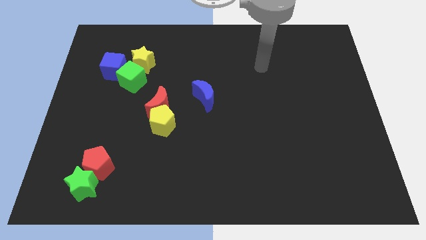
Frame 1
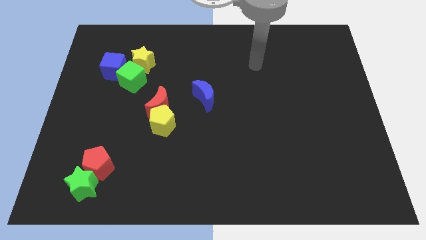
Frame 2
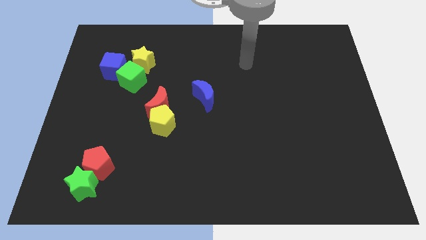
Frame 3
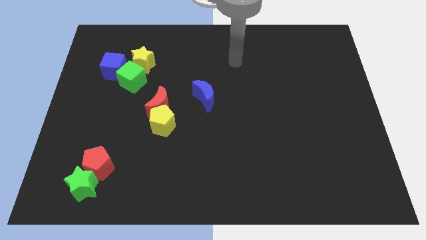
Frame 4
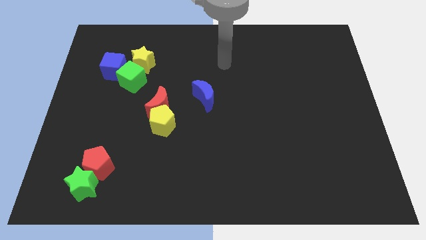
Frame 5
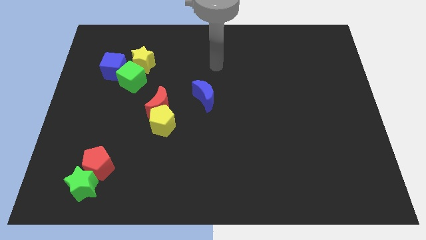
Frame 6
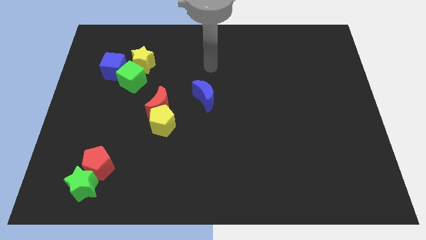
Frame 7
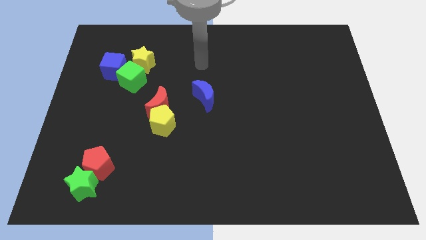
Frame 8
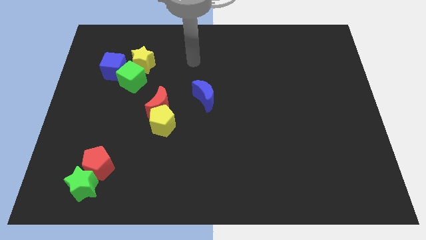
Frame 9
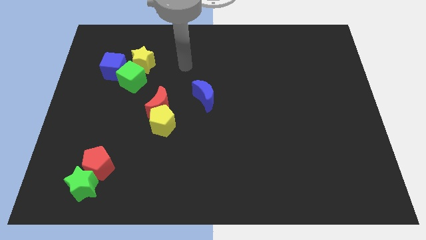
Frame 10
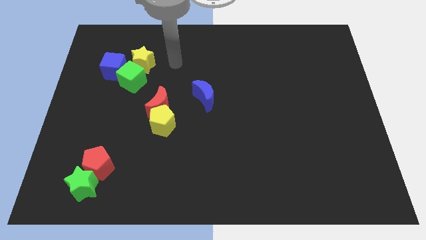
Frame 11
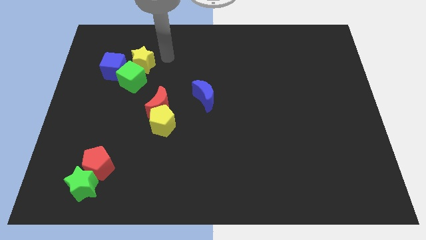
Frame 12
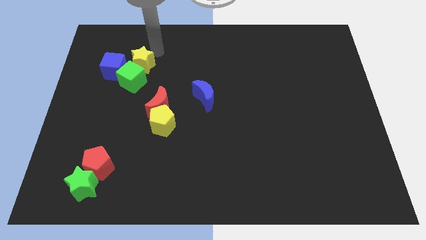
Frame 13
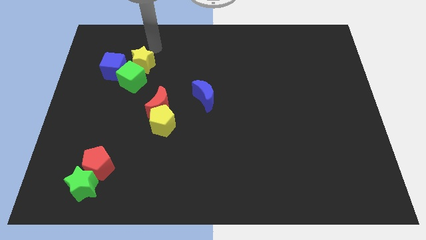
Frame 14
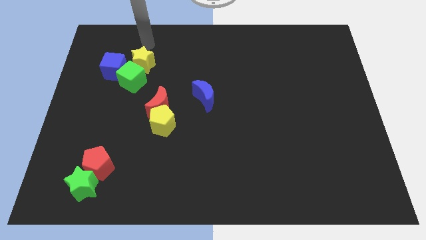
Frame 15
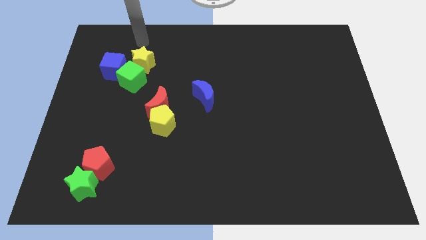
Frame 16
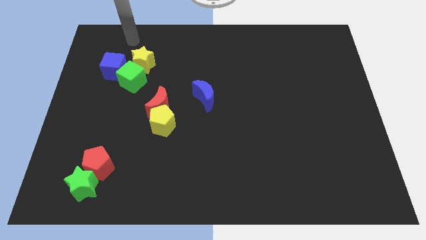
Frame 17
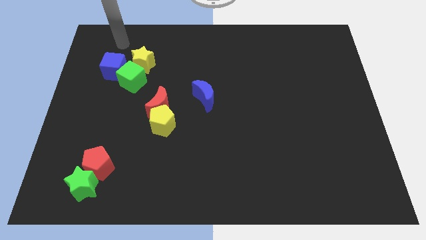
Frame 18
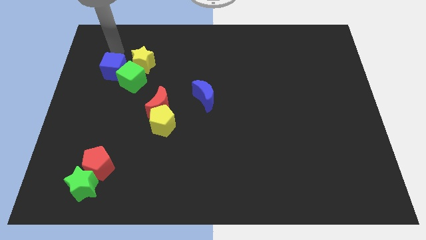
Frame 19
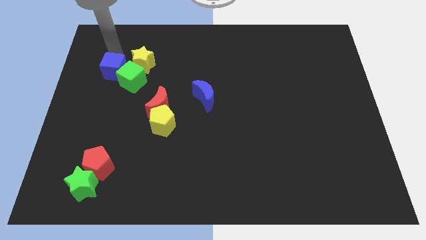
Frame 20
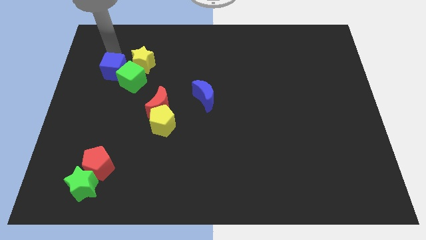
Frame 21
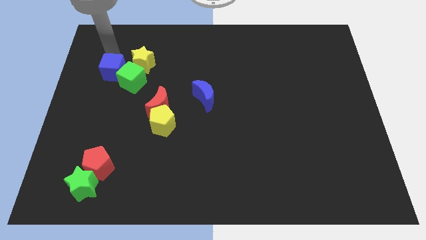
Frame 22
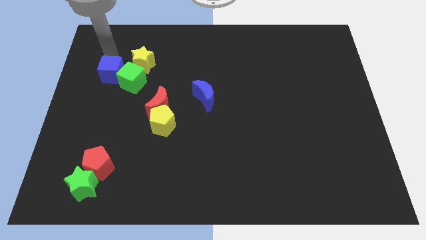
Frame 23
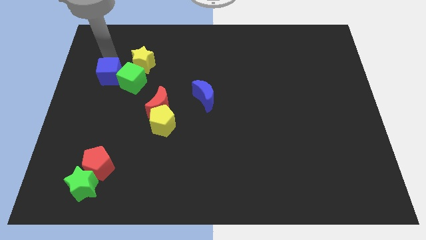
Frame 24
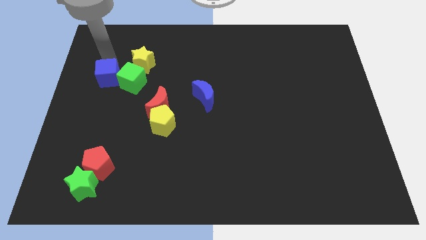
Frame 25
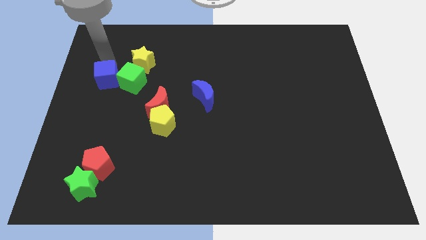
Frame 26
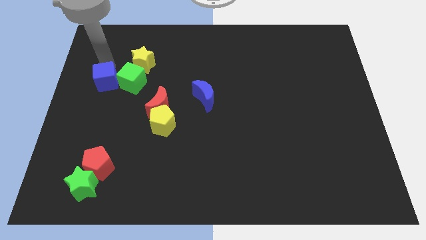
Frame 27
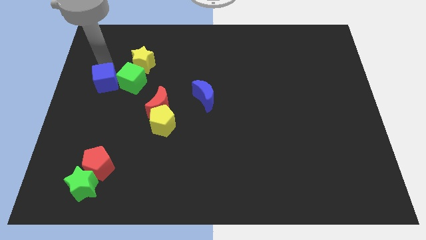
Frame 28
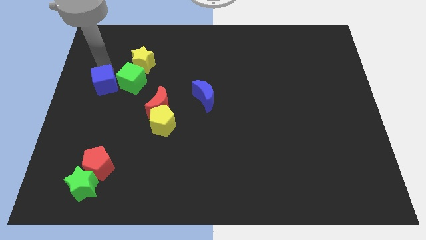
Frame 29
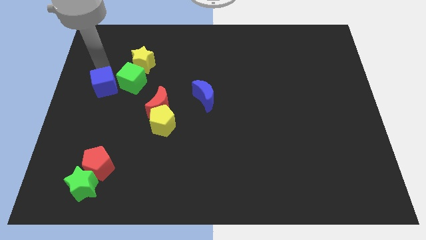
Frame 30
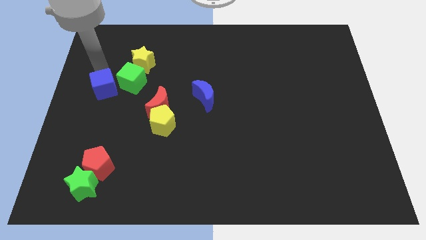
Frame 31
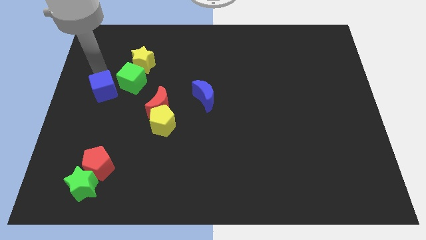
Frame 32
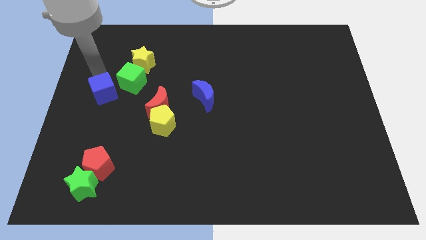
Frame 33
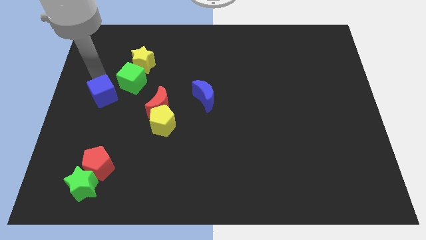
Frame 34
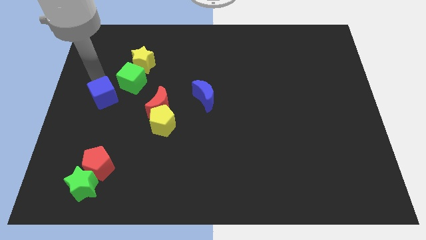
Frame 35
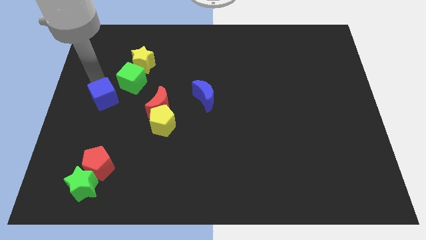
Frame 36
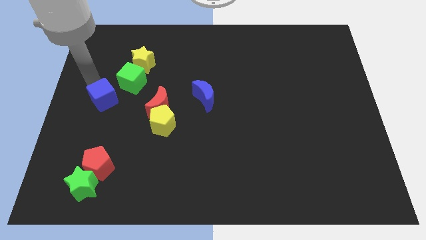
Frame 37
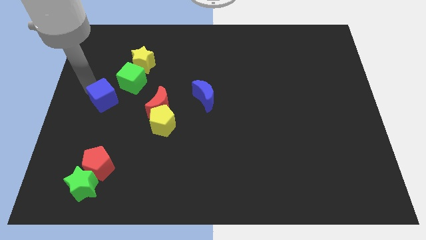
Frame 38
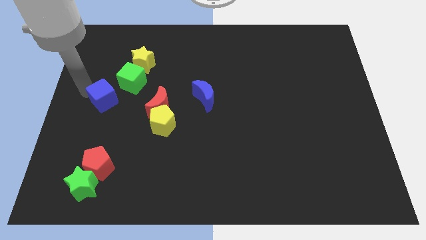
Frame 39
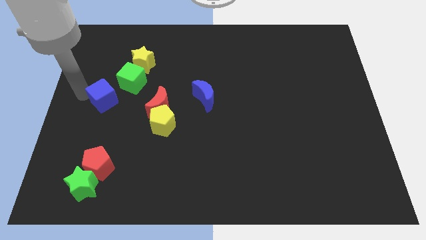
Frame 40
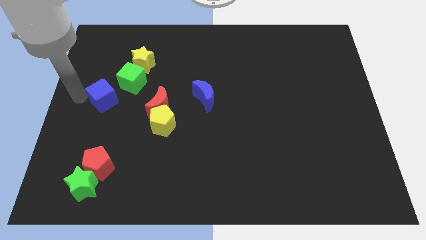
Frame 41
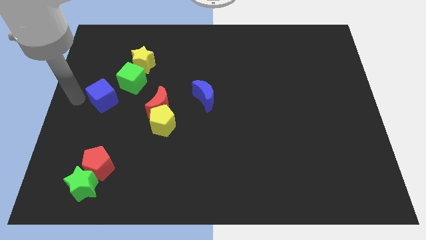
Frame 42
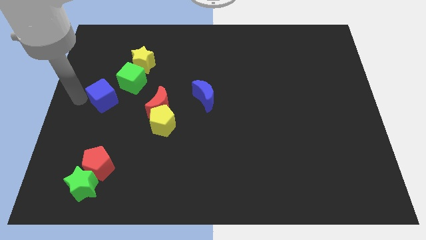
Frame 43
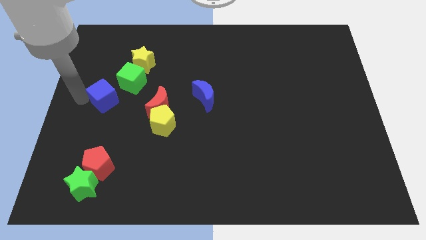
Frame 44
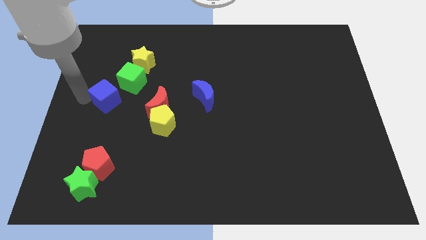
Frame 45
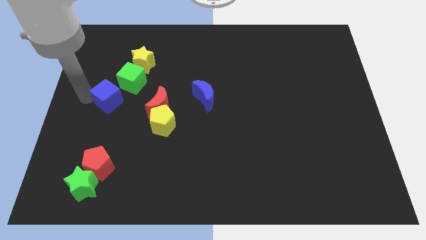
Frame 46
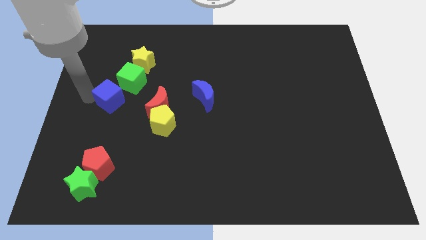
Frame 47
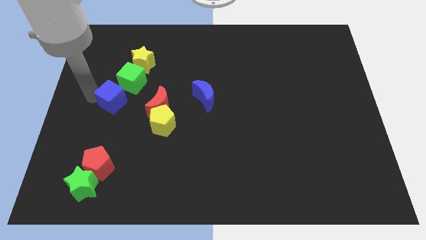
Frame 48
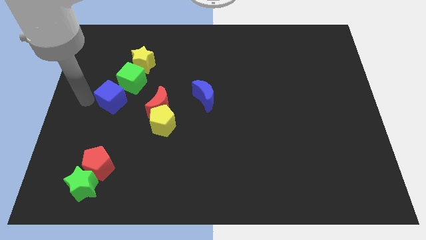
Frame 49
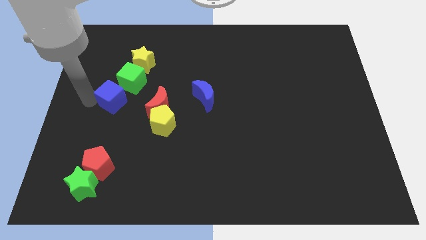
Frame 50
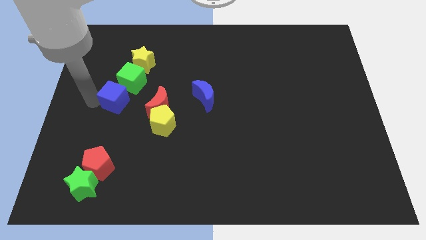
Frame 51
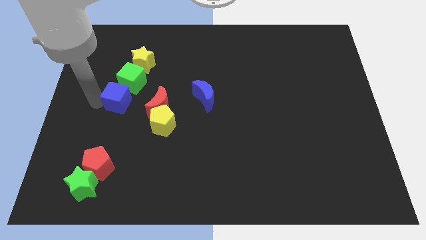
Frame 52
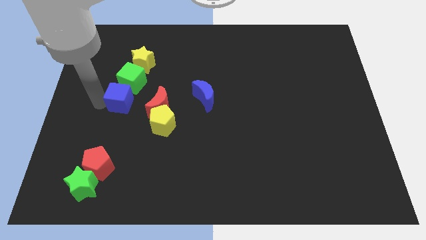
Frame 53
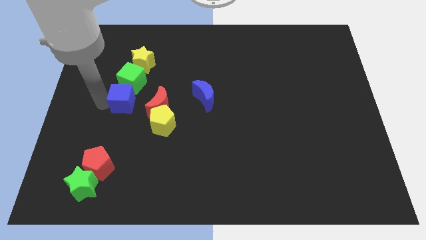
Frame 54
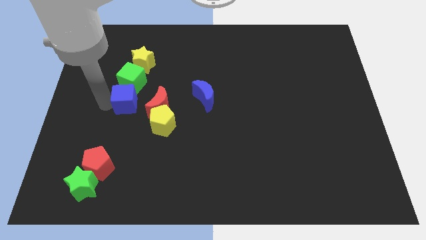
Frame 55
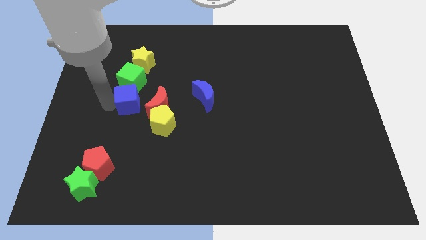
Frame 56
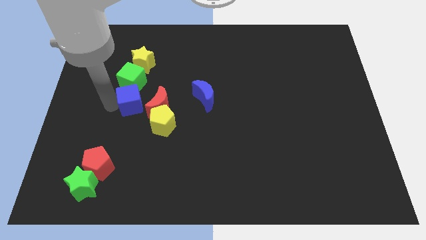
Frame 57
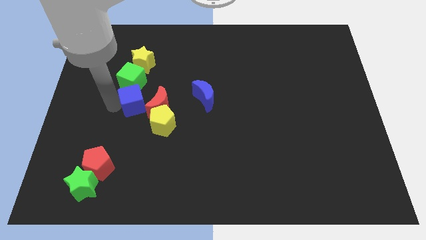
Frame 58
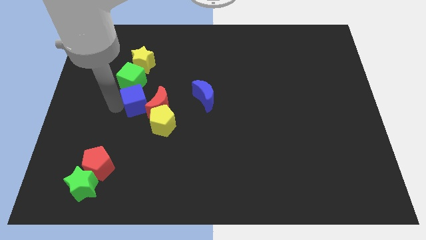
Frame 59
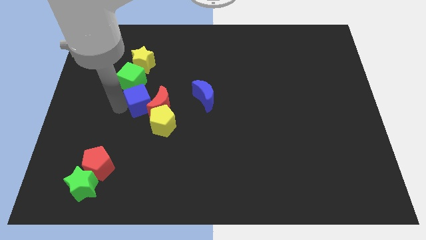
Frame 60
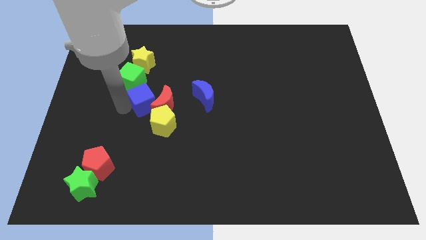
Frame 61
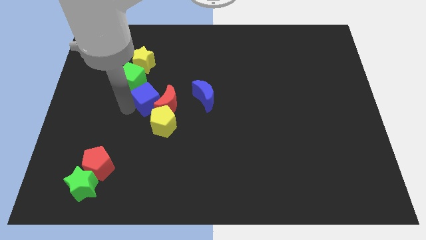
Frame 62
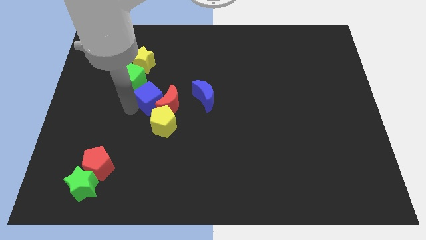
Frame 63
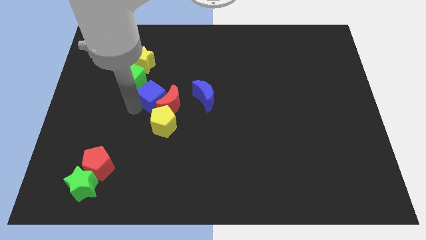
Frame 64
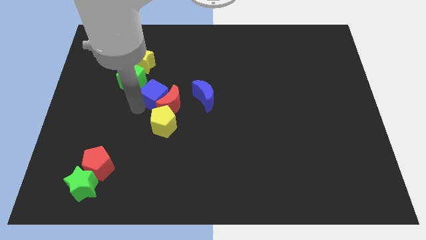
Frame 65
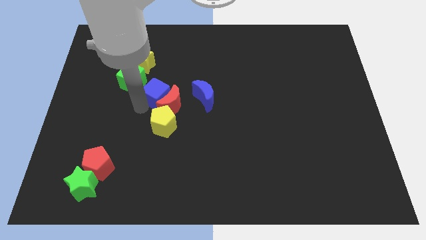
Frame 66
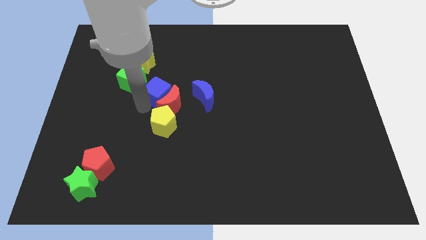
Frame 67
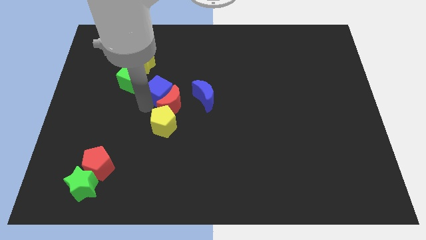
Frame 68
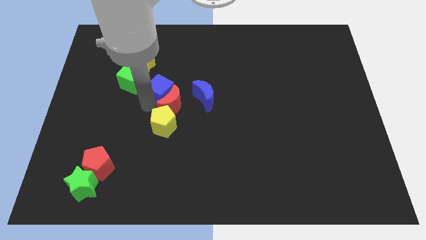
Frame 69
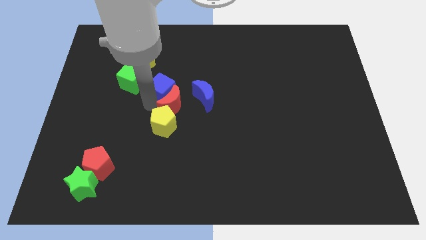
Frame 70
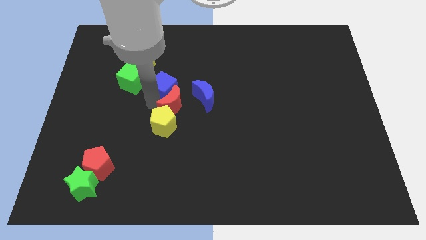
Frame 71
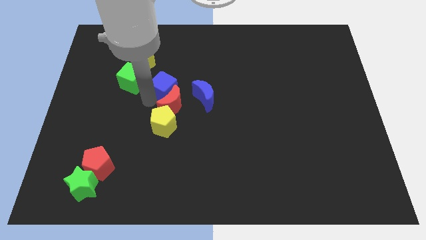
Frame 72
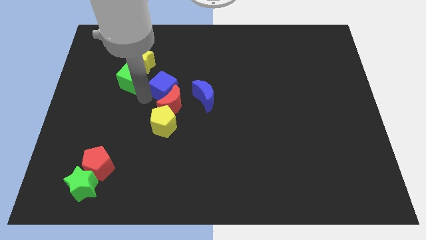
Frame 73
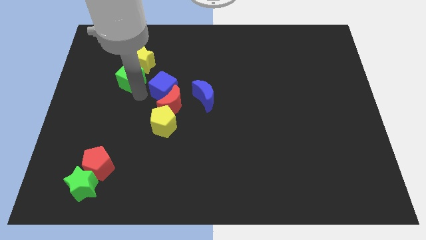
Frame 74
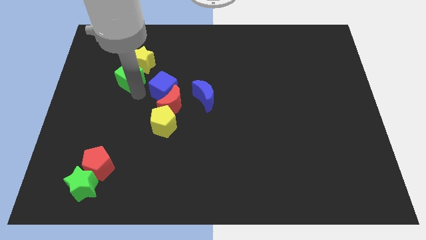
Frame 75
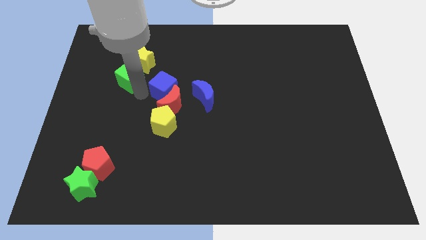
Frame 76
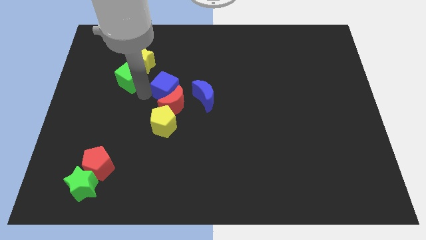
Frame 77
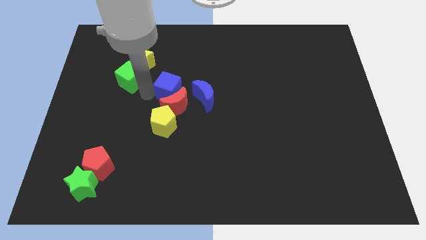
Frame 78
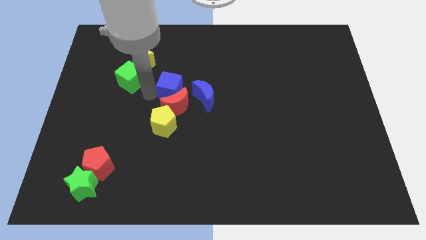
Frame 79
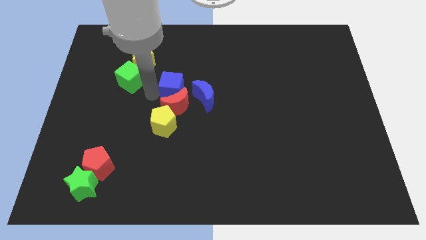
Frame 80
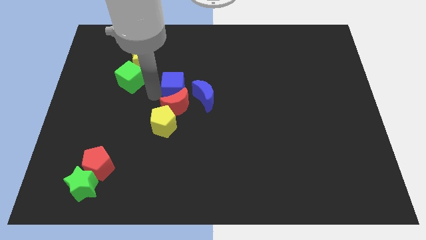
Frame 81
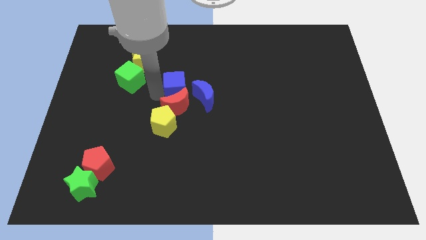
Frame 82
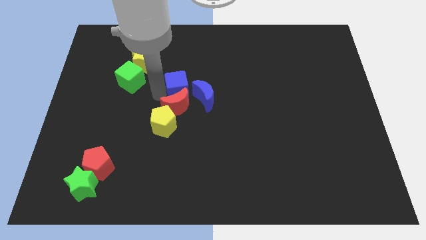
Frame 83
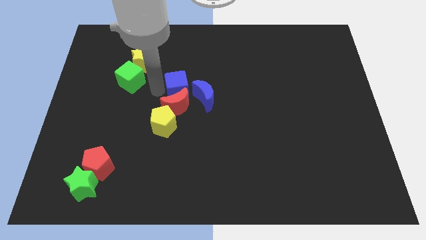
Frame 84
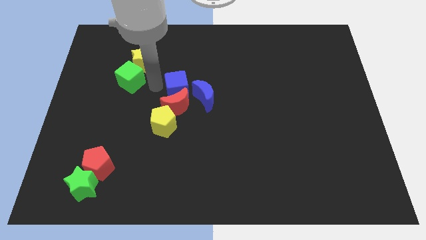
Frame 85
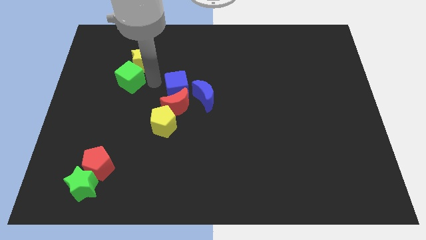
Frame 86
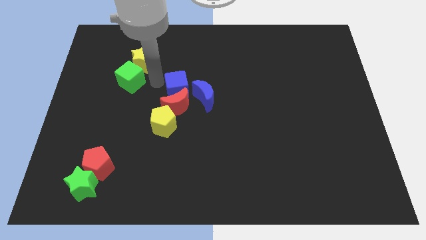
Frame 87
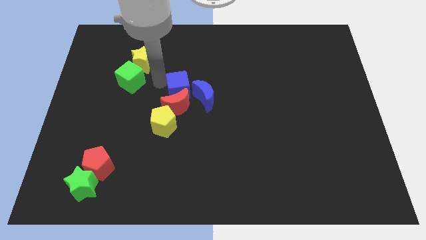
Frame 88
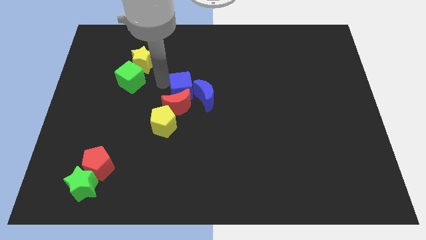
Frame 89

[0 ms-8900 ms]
slide the blue cube to the blue moon
